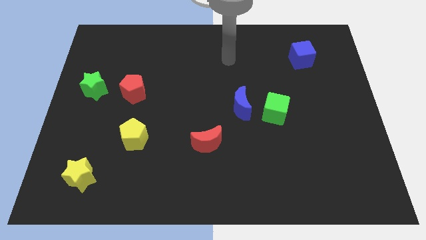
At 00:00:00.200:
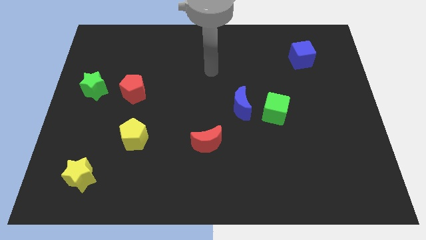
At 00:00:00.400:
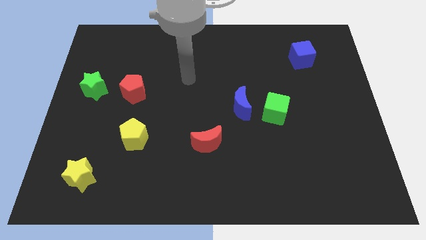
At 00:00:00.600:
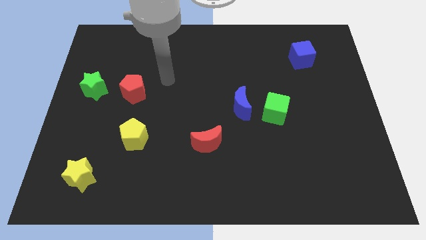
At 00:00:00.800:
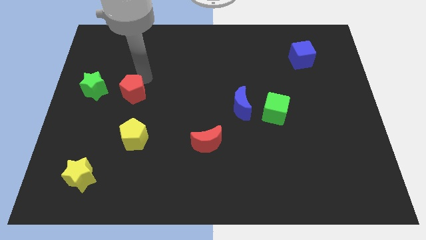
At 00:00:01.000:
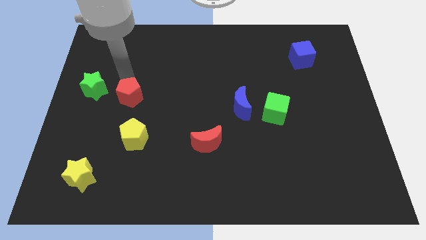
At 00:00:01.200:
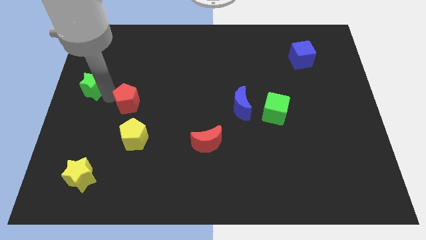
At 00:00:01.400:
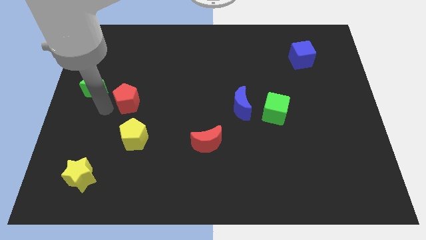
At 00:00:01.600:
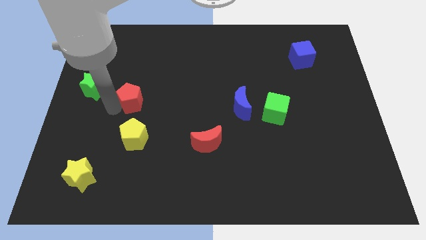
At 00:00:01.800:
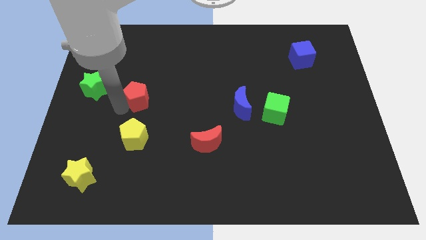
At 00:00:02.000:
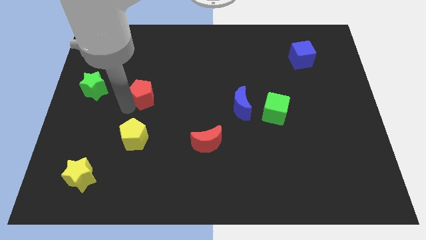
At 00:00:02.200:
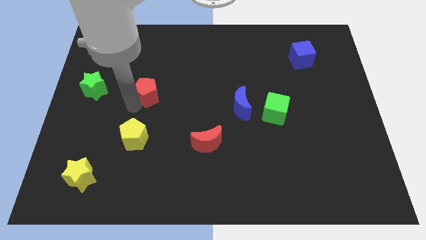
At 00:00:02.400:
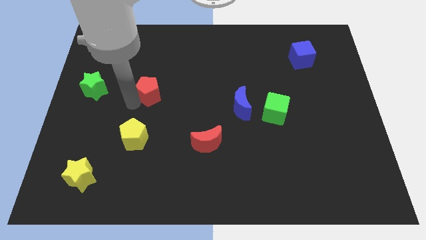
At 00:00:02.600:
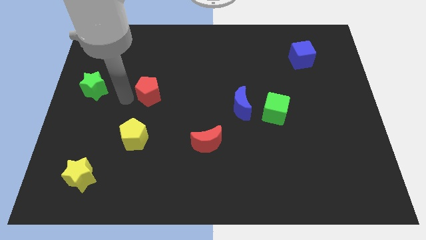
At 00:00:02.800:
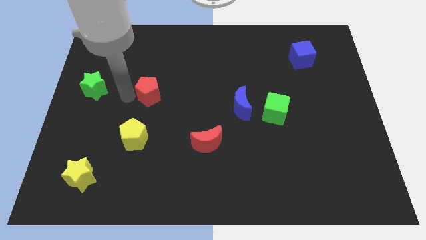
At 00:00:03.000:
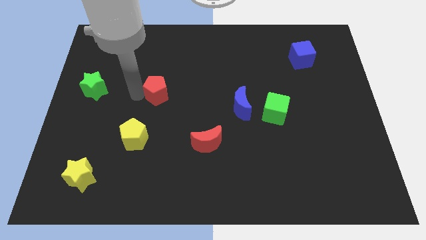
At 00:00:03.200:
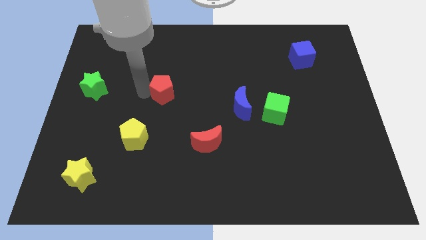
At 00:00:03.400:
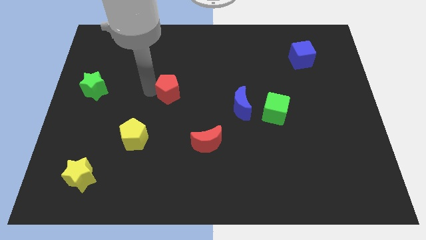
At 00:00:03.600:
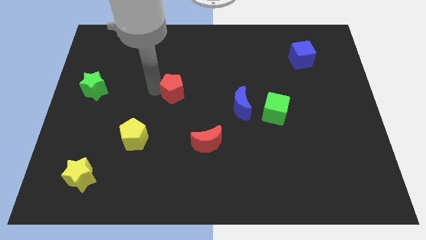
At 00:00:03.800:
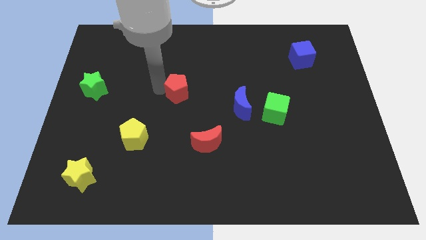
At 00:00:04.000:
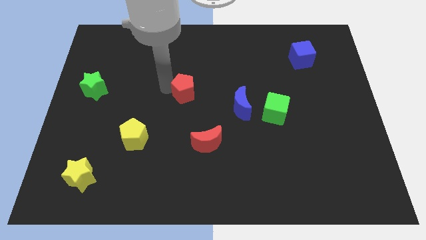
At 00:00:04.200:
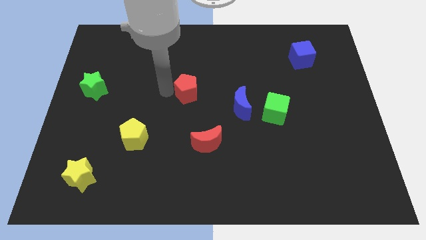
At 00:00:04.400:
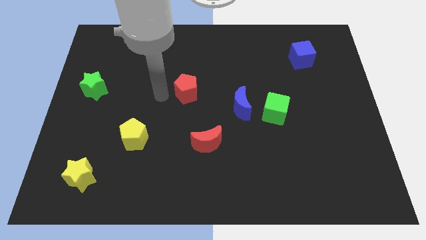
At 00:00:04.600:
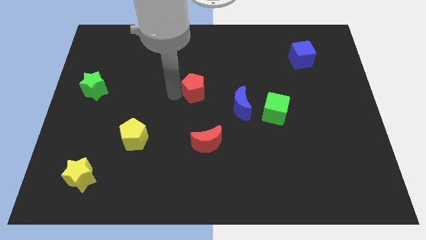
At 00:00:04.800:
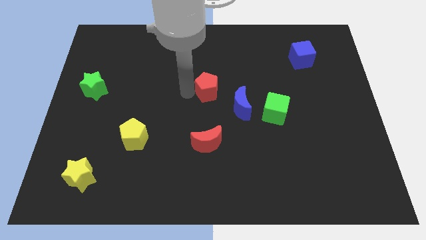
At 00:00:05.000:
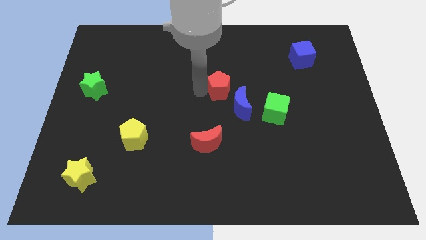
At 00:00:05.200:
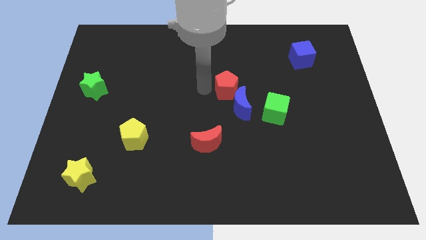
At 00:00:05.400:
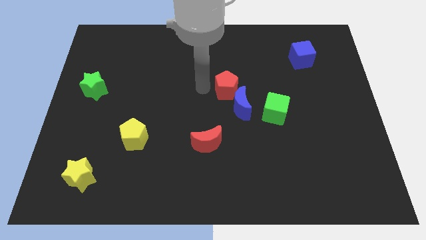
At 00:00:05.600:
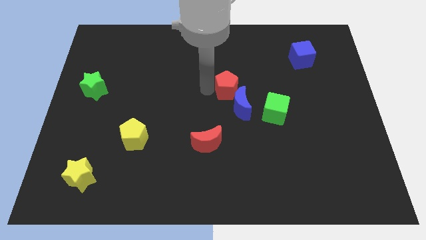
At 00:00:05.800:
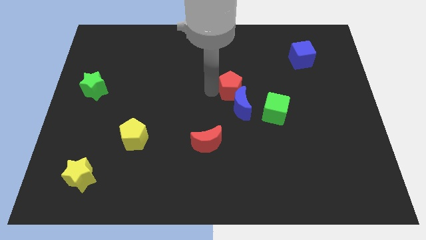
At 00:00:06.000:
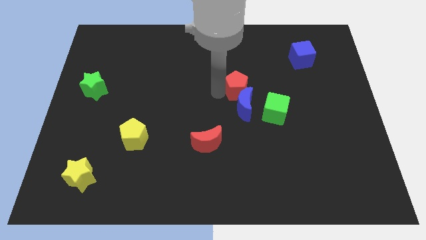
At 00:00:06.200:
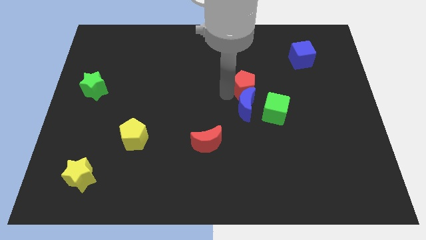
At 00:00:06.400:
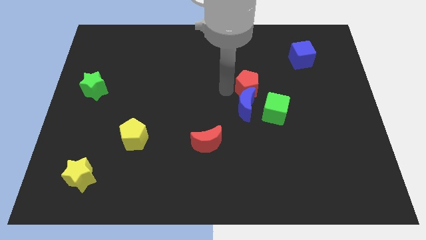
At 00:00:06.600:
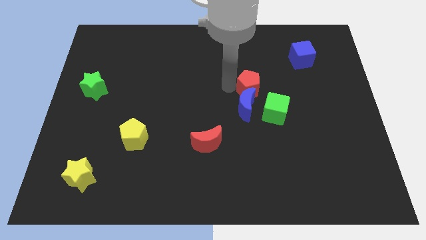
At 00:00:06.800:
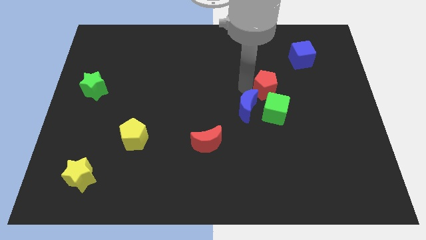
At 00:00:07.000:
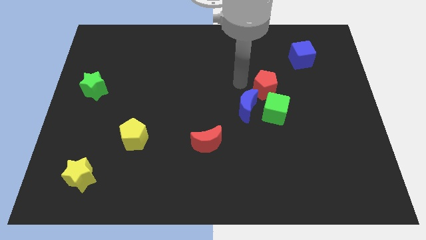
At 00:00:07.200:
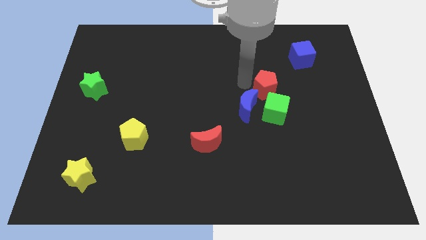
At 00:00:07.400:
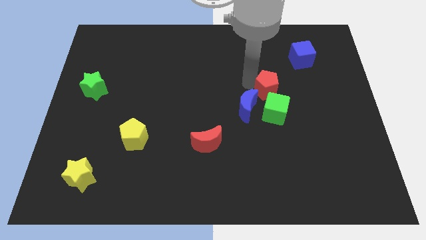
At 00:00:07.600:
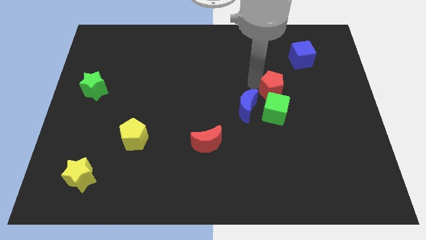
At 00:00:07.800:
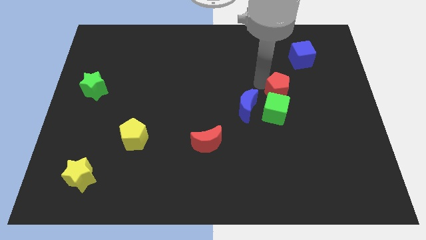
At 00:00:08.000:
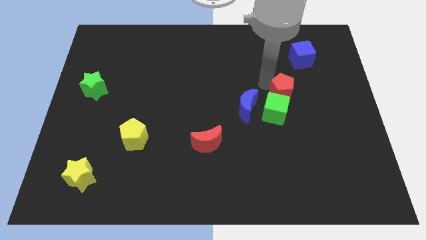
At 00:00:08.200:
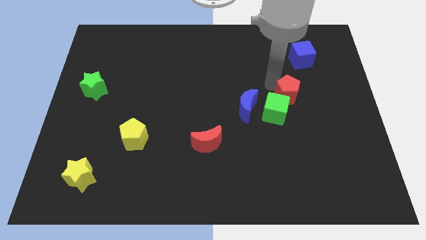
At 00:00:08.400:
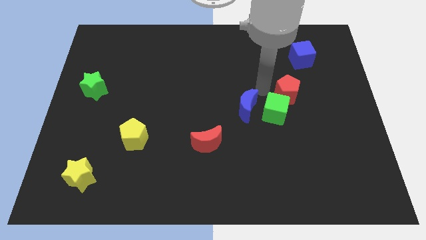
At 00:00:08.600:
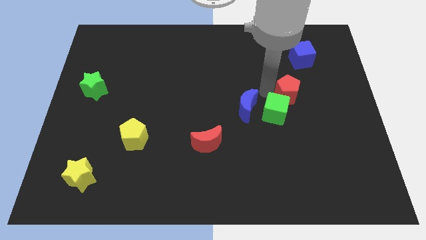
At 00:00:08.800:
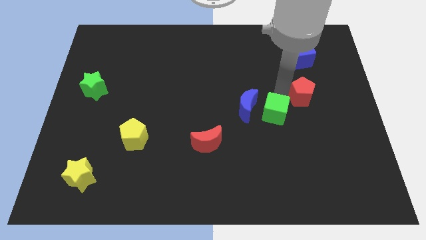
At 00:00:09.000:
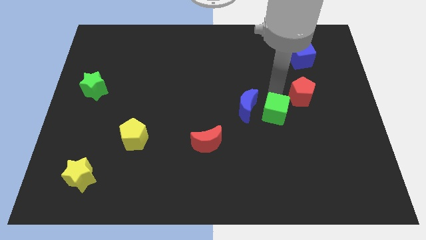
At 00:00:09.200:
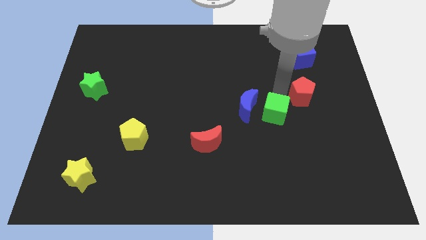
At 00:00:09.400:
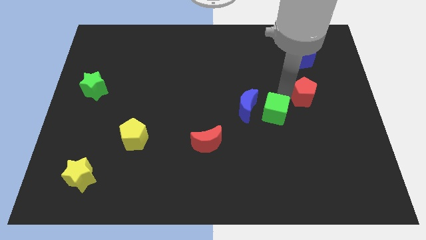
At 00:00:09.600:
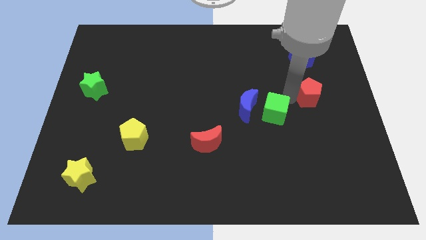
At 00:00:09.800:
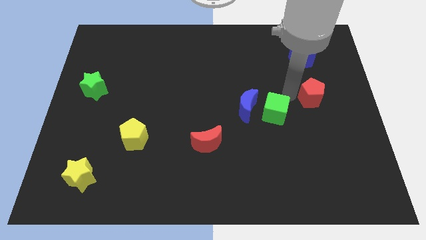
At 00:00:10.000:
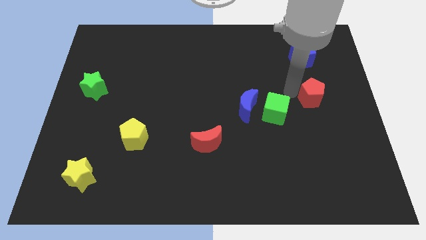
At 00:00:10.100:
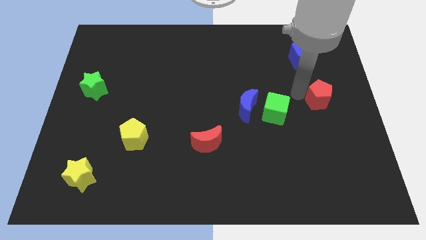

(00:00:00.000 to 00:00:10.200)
push the red pentagon to the center right

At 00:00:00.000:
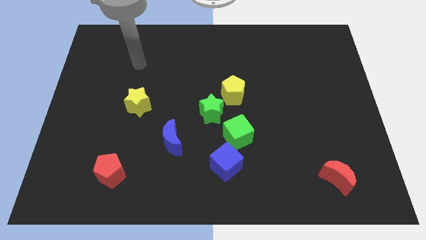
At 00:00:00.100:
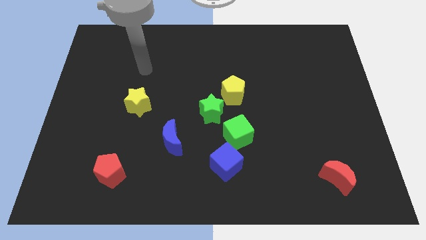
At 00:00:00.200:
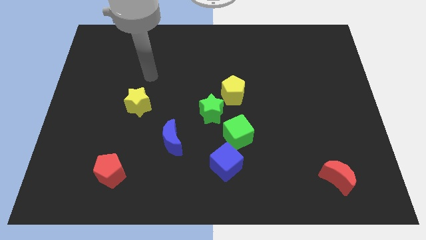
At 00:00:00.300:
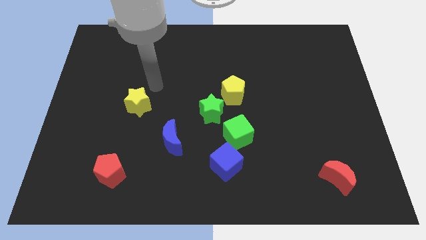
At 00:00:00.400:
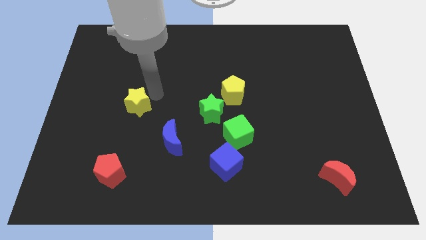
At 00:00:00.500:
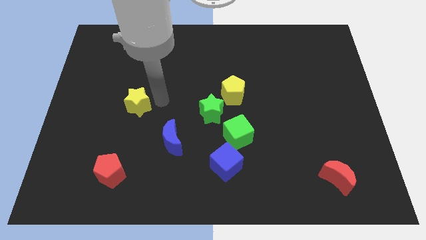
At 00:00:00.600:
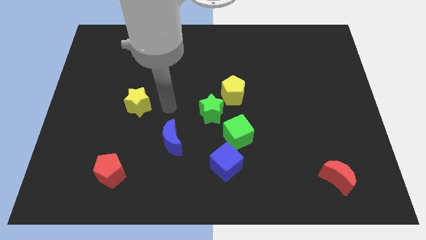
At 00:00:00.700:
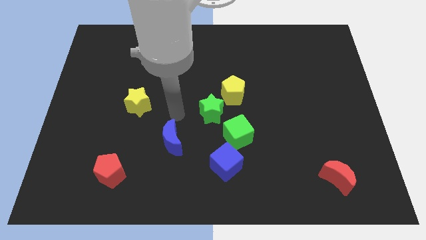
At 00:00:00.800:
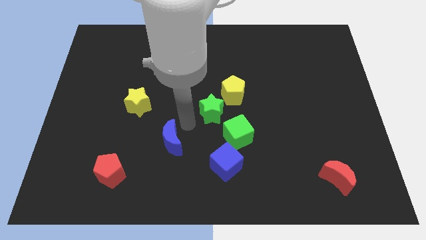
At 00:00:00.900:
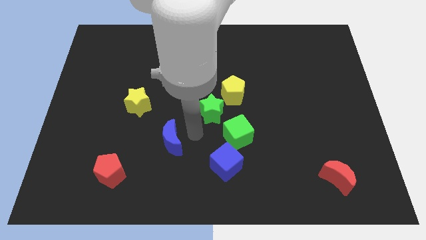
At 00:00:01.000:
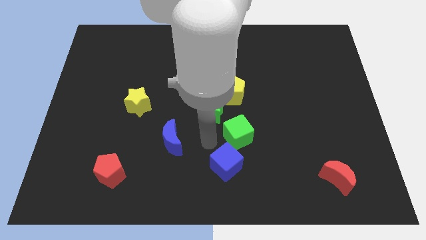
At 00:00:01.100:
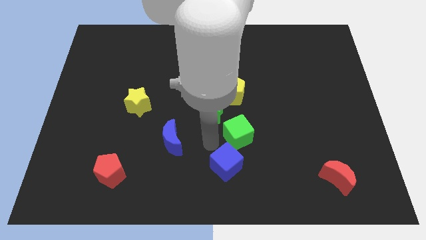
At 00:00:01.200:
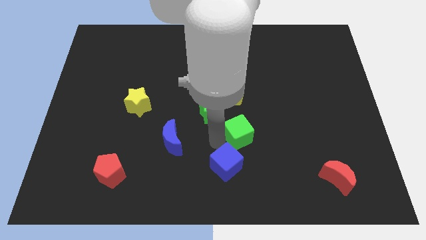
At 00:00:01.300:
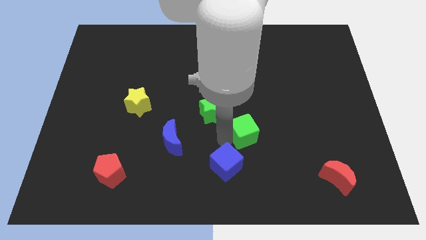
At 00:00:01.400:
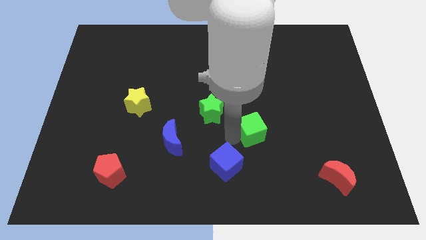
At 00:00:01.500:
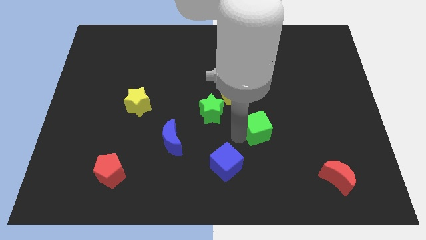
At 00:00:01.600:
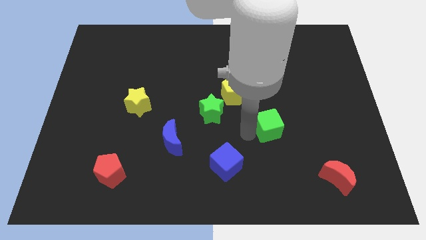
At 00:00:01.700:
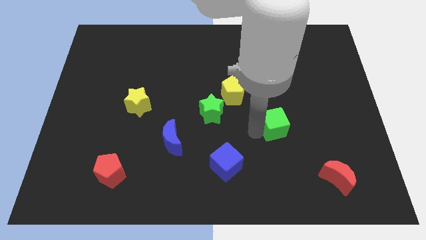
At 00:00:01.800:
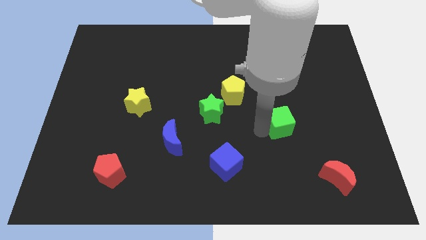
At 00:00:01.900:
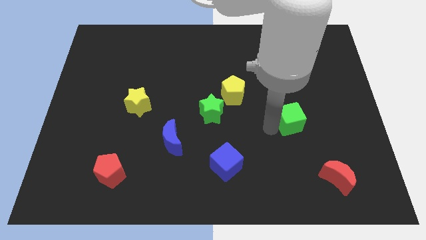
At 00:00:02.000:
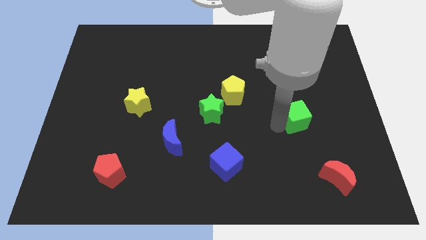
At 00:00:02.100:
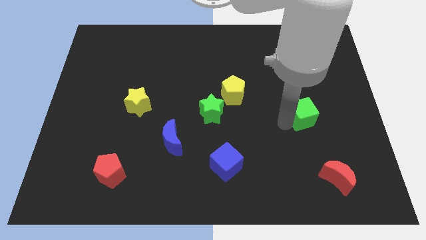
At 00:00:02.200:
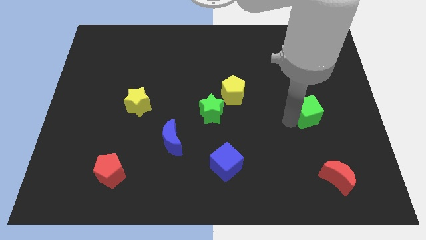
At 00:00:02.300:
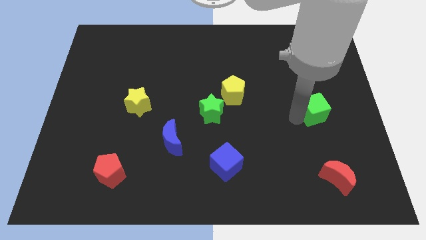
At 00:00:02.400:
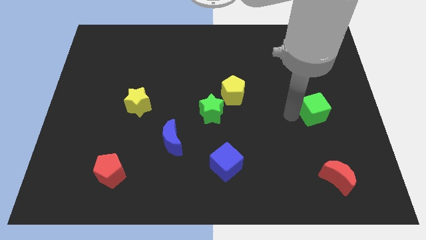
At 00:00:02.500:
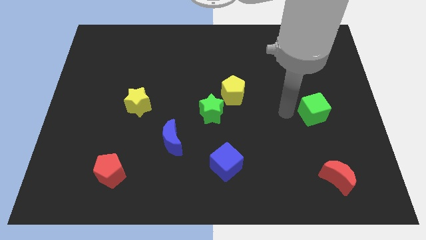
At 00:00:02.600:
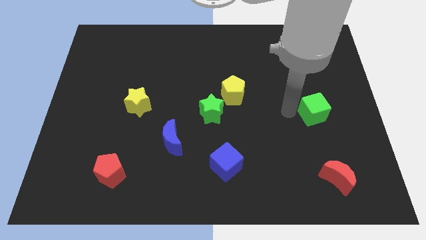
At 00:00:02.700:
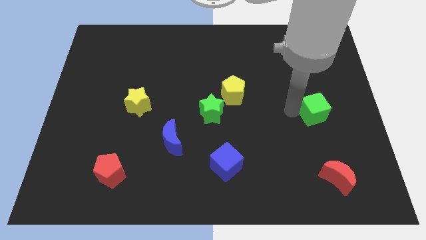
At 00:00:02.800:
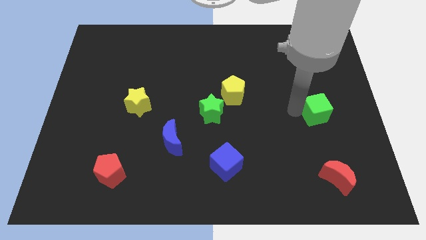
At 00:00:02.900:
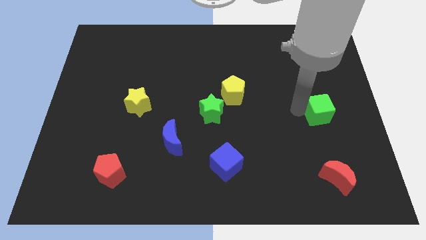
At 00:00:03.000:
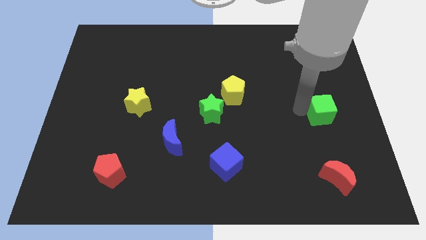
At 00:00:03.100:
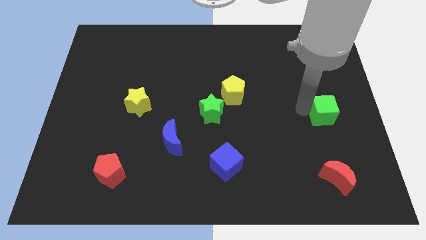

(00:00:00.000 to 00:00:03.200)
push the green cube to the center right
